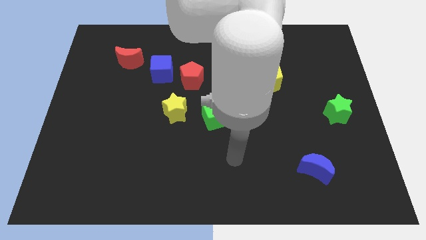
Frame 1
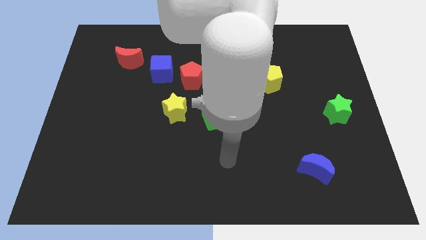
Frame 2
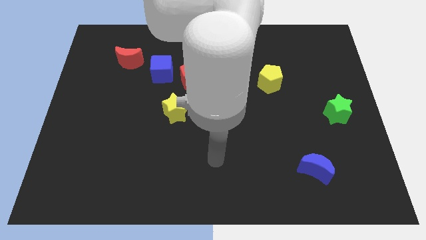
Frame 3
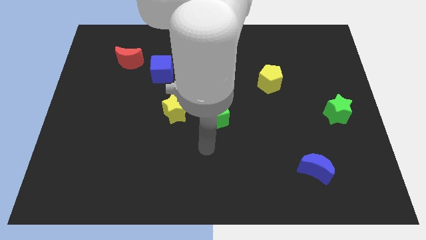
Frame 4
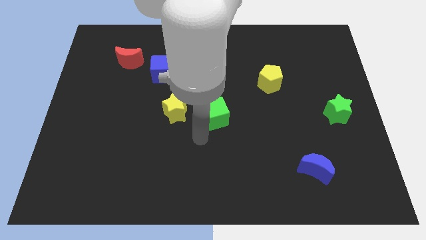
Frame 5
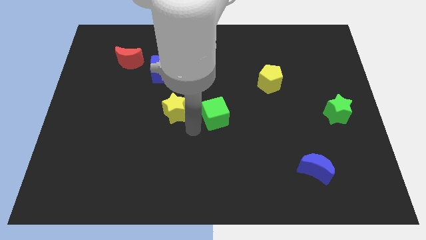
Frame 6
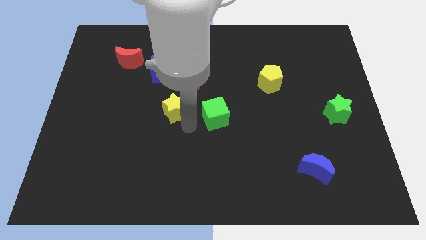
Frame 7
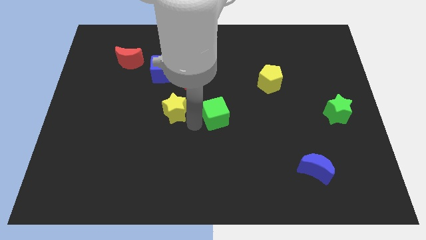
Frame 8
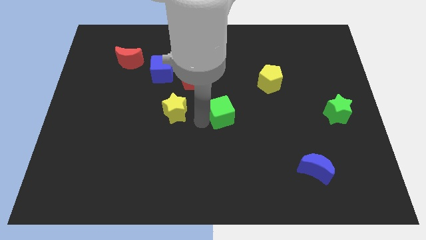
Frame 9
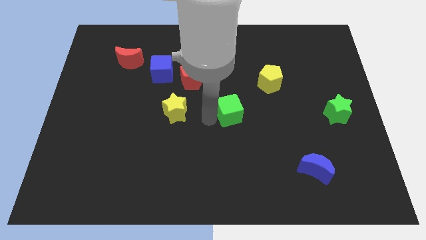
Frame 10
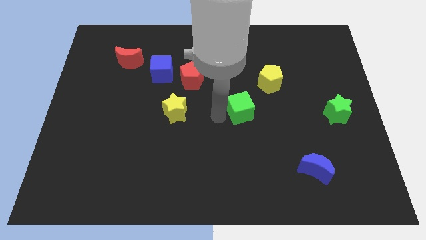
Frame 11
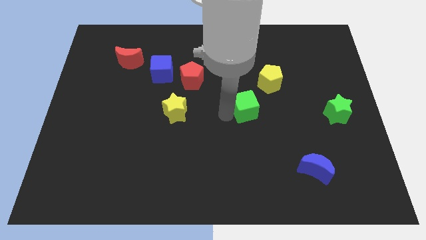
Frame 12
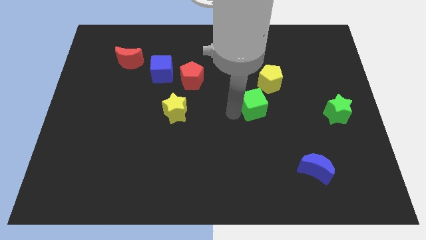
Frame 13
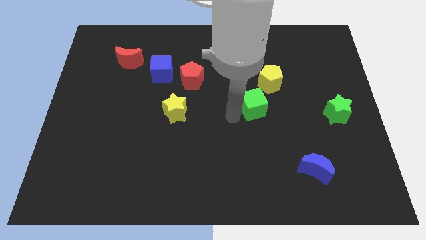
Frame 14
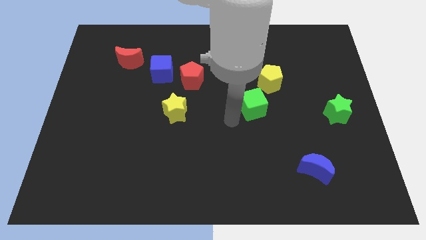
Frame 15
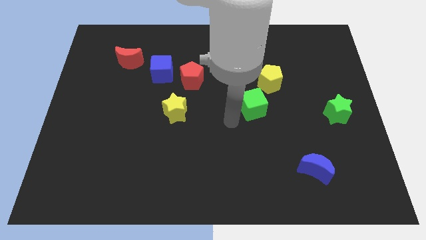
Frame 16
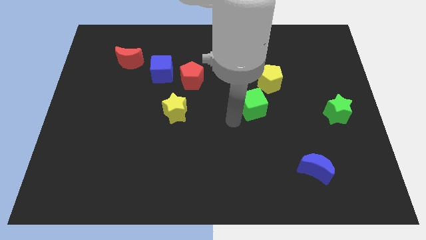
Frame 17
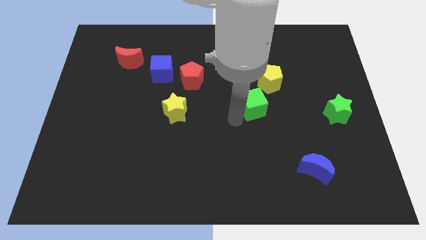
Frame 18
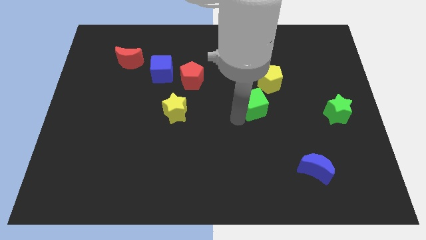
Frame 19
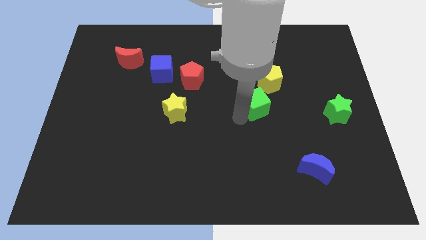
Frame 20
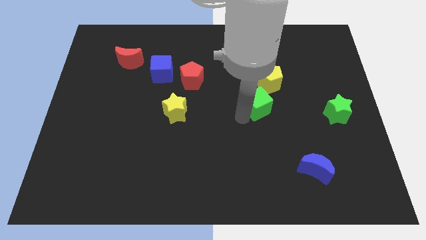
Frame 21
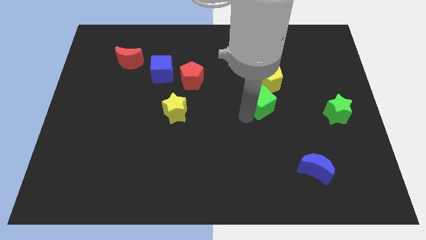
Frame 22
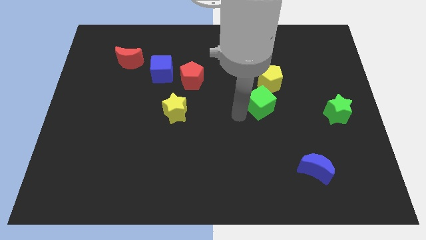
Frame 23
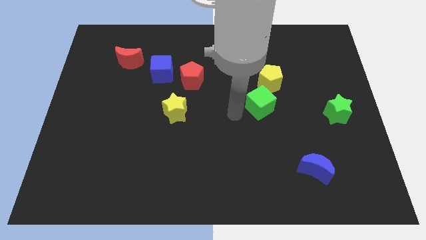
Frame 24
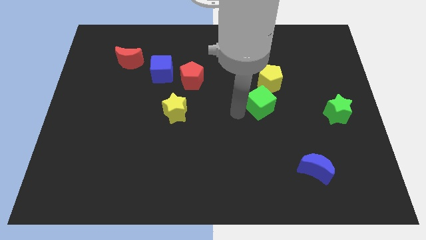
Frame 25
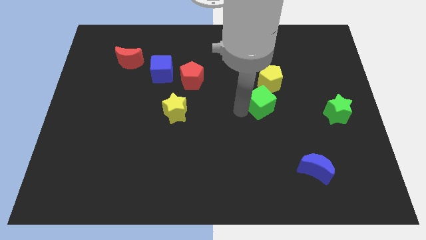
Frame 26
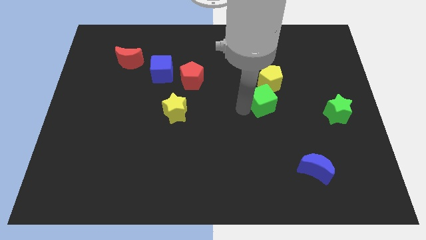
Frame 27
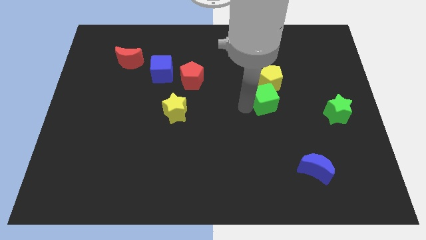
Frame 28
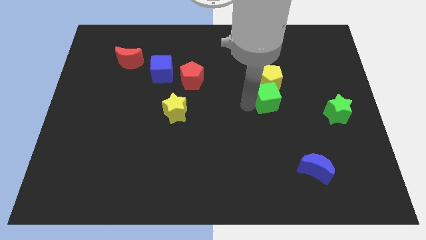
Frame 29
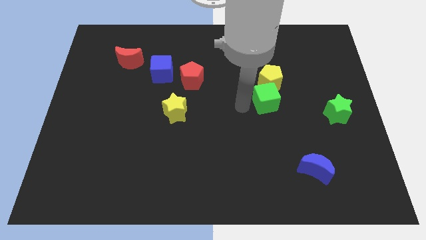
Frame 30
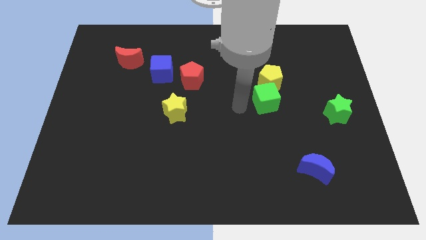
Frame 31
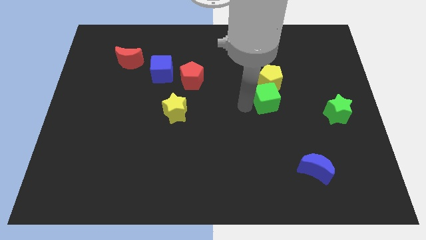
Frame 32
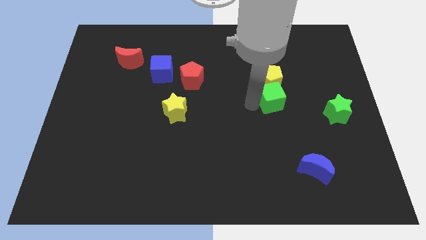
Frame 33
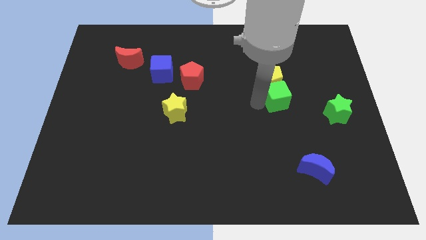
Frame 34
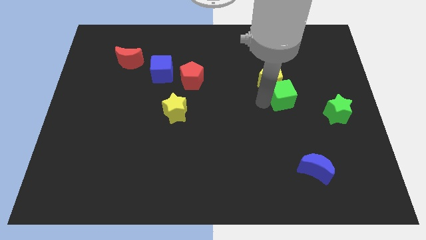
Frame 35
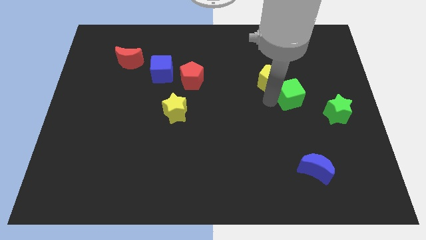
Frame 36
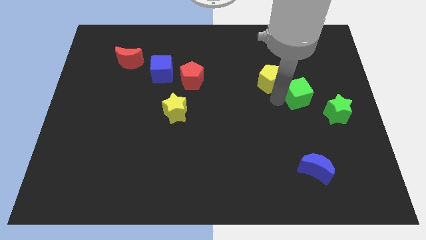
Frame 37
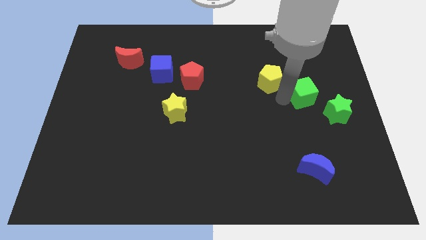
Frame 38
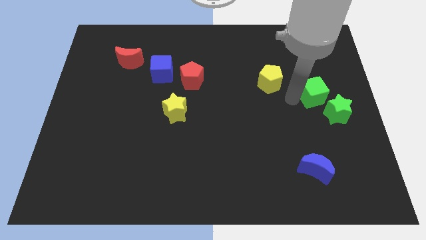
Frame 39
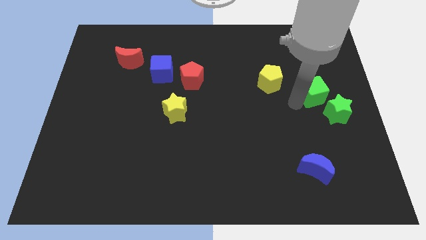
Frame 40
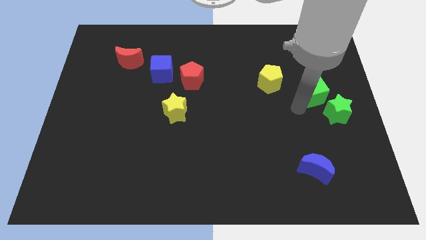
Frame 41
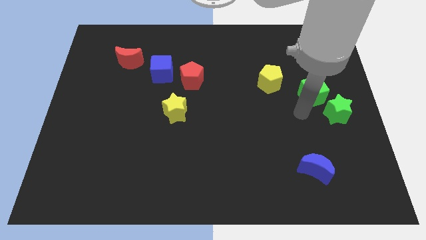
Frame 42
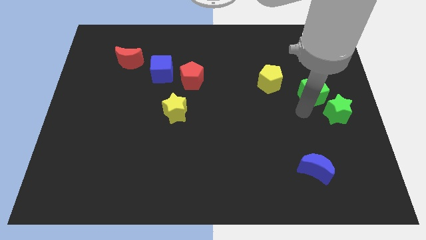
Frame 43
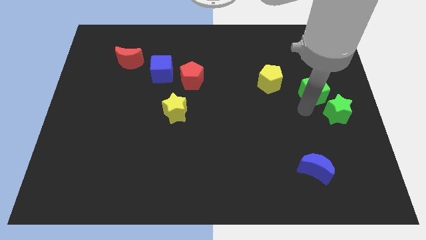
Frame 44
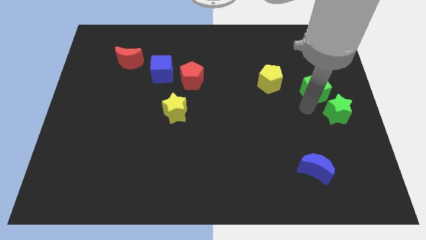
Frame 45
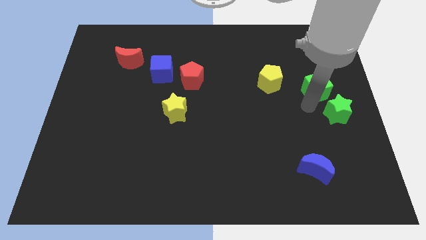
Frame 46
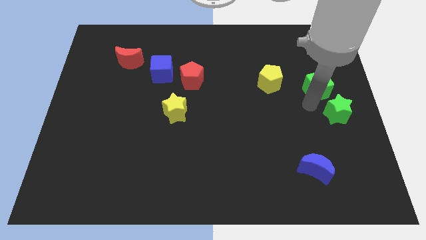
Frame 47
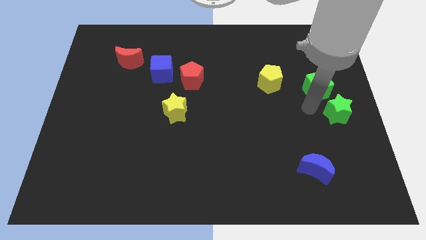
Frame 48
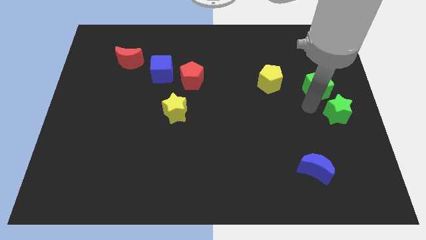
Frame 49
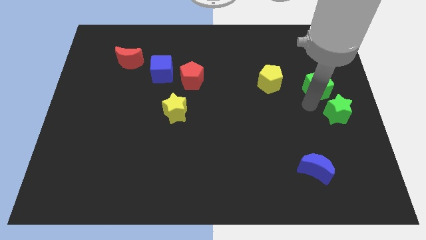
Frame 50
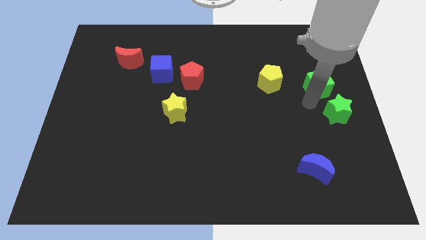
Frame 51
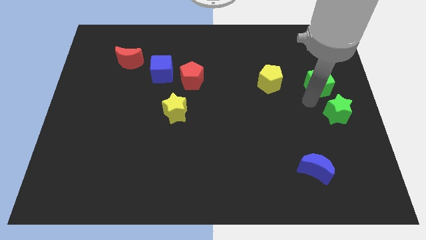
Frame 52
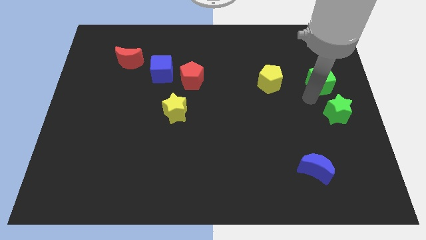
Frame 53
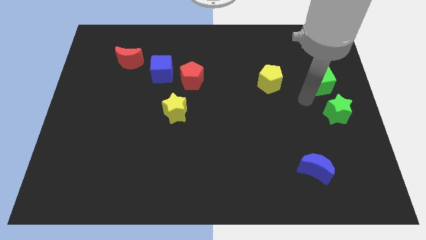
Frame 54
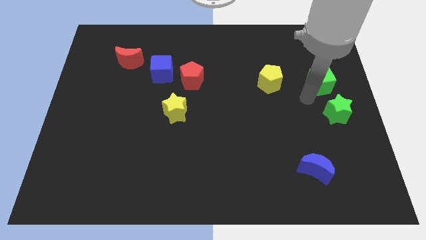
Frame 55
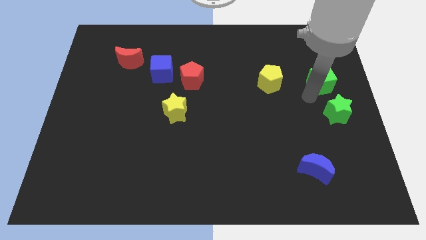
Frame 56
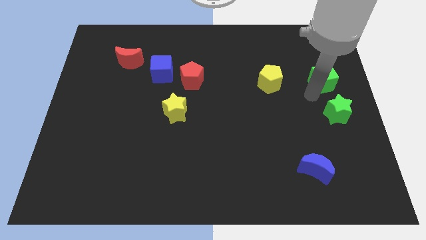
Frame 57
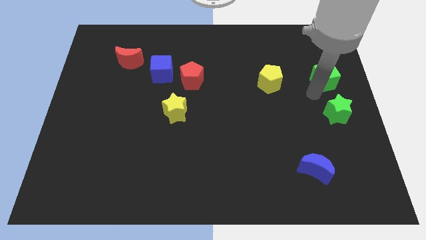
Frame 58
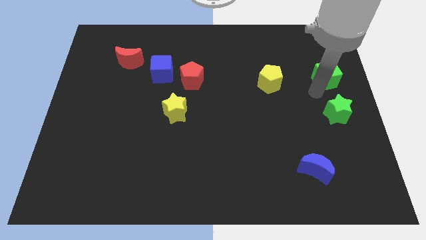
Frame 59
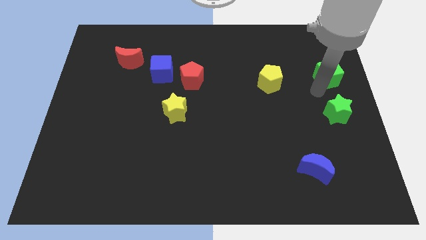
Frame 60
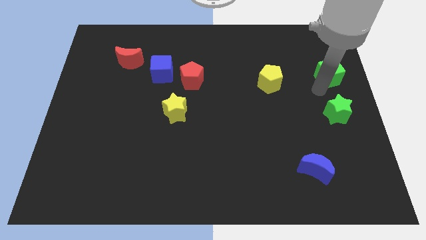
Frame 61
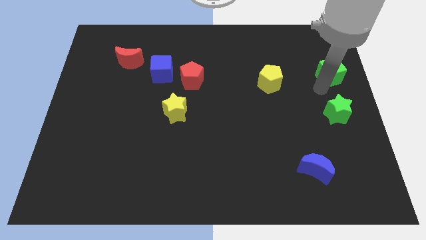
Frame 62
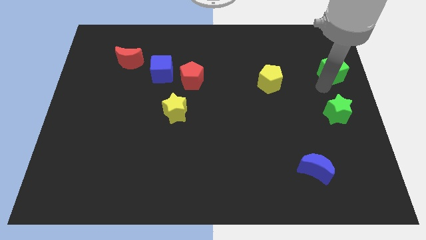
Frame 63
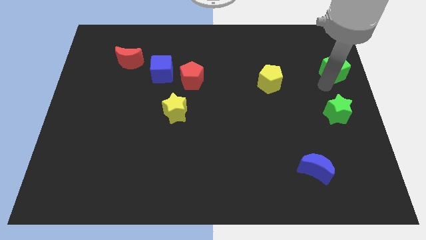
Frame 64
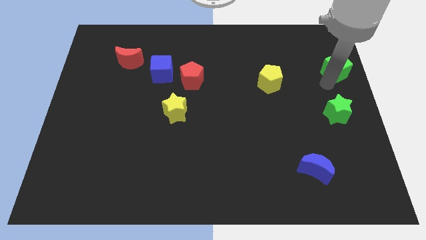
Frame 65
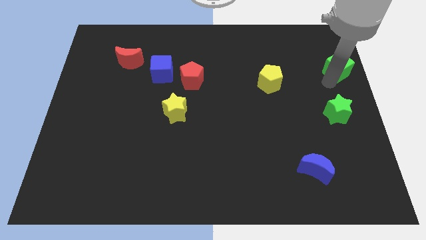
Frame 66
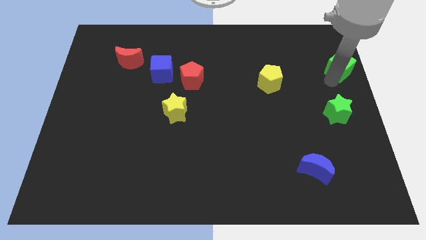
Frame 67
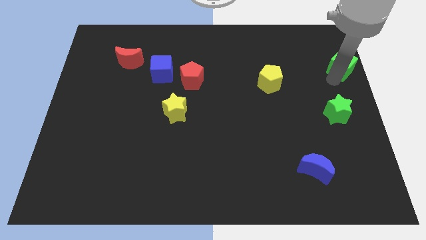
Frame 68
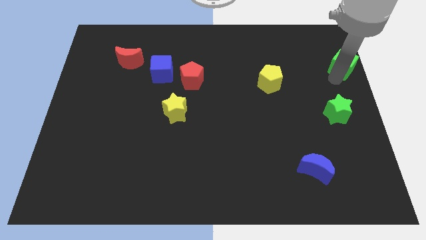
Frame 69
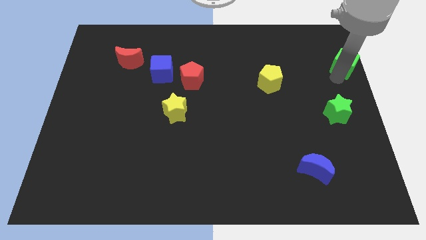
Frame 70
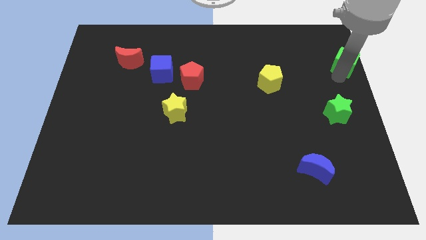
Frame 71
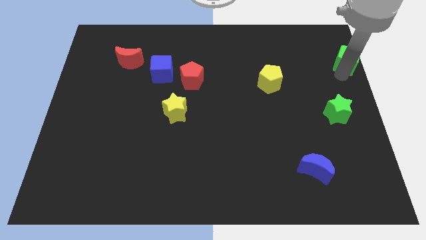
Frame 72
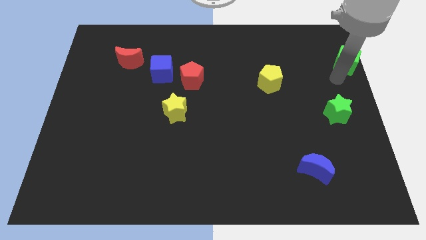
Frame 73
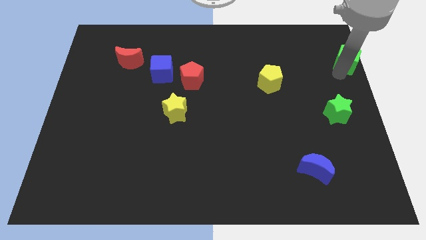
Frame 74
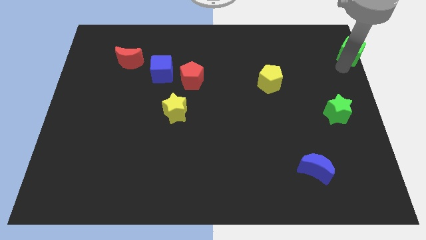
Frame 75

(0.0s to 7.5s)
put the green cube to the top right of the board
